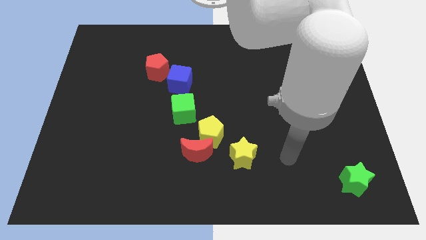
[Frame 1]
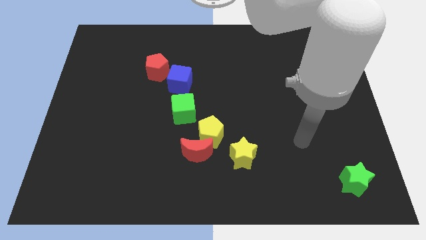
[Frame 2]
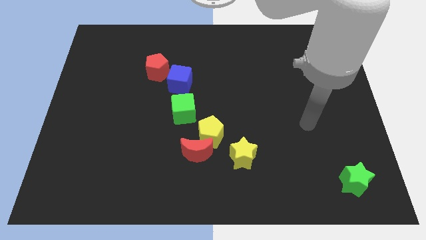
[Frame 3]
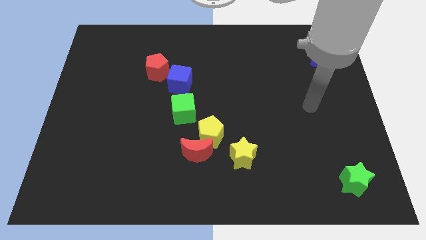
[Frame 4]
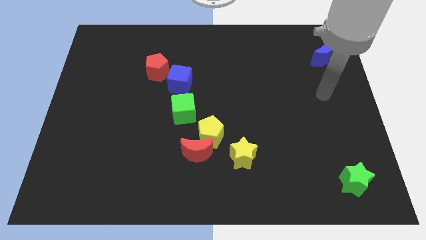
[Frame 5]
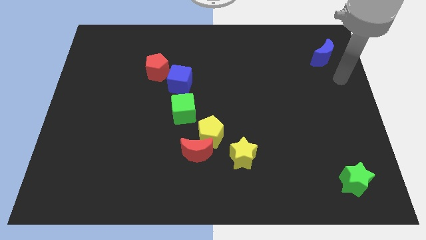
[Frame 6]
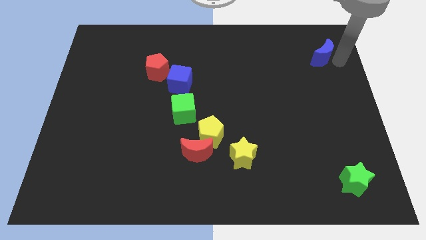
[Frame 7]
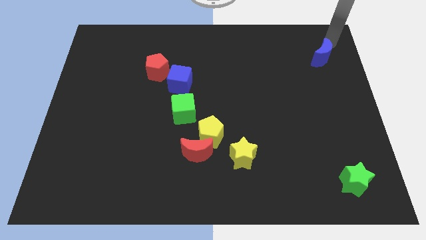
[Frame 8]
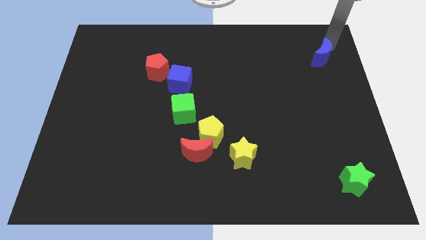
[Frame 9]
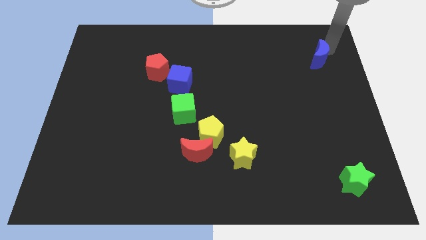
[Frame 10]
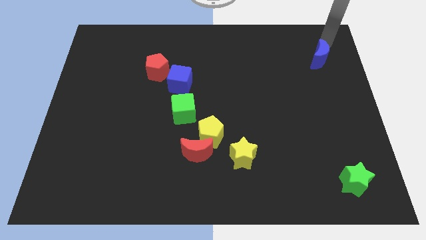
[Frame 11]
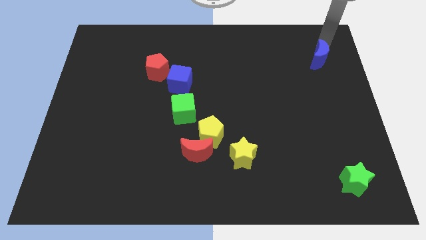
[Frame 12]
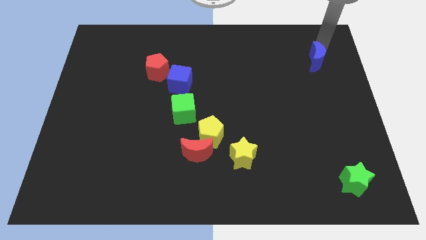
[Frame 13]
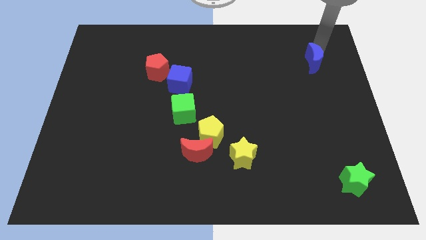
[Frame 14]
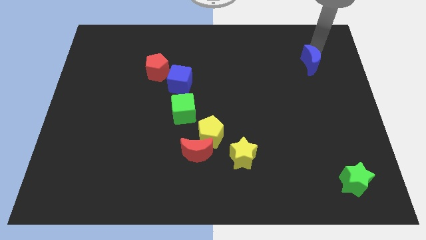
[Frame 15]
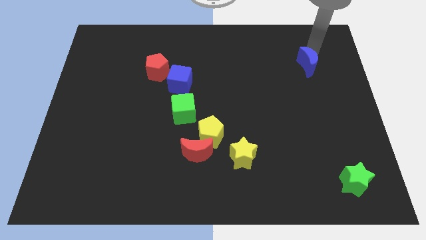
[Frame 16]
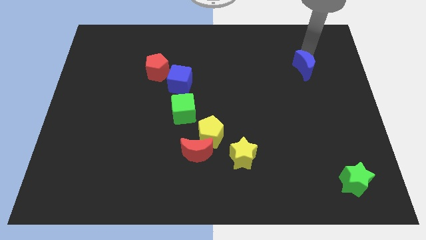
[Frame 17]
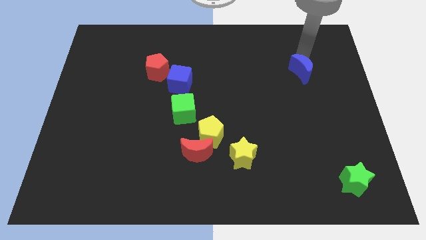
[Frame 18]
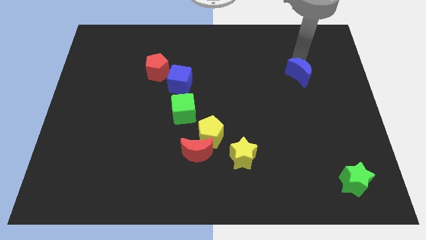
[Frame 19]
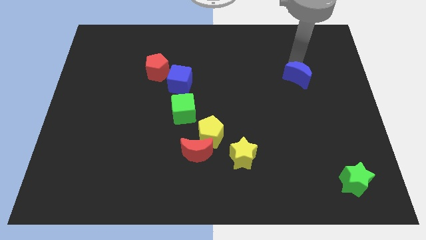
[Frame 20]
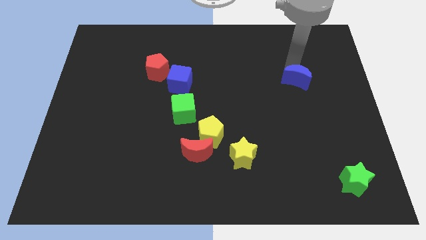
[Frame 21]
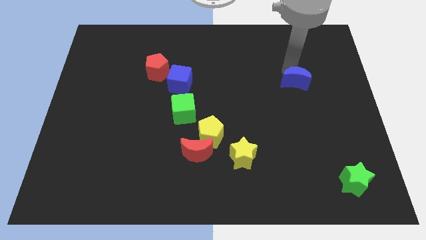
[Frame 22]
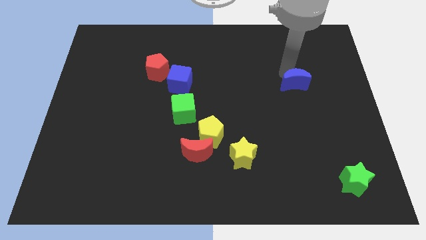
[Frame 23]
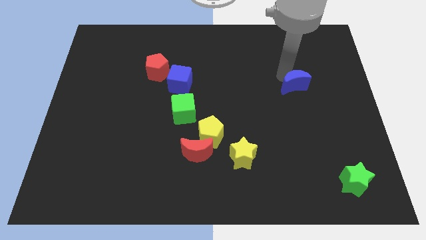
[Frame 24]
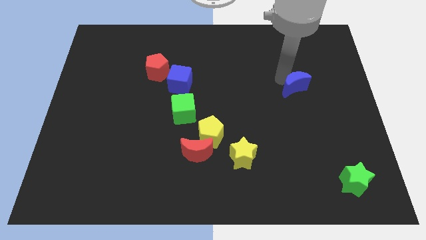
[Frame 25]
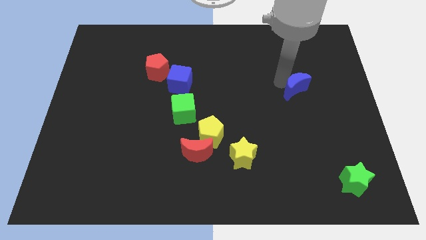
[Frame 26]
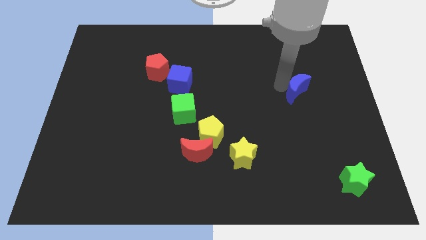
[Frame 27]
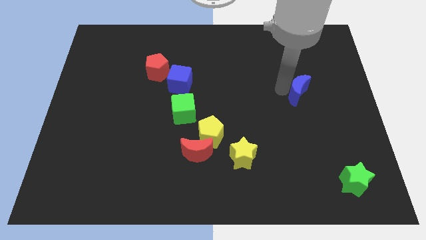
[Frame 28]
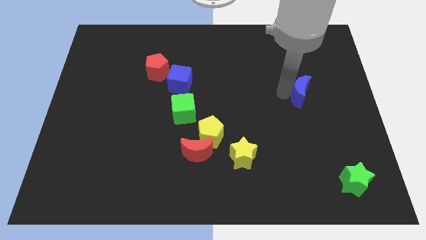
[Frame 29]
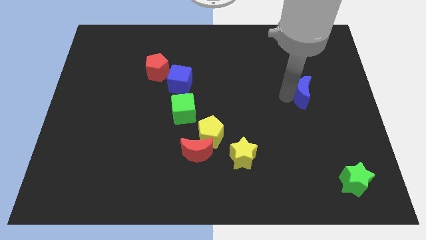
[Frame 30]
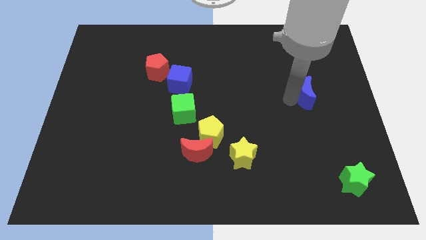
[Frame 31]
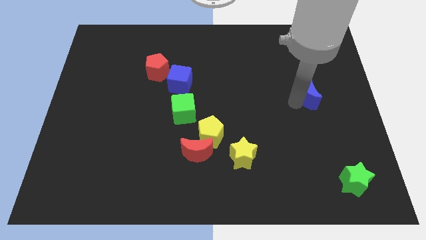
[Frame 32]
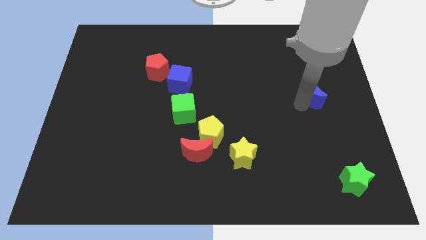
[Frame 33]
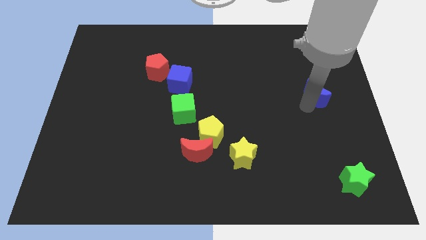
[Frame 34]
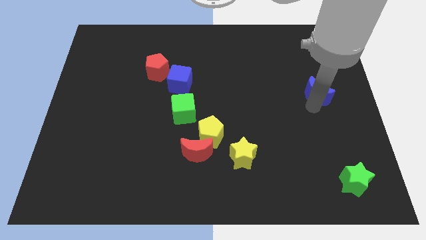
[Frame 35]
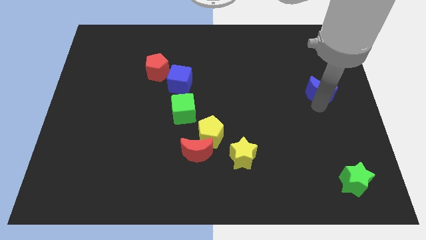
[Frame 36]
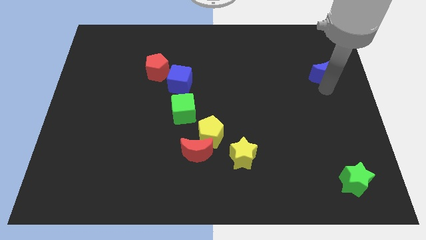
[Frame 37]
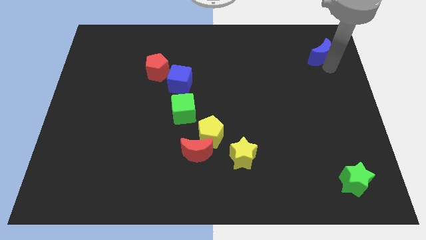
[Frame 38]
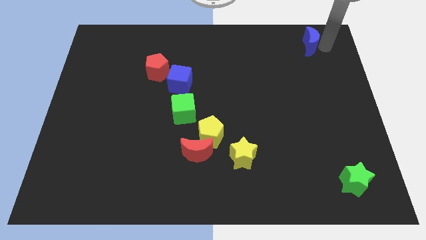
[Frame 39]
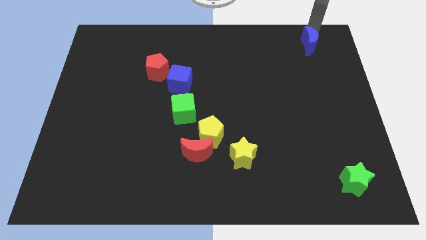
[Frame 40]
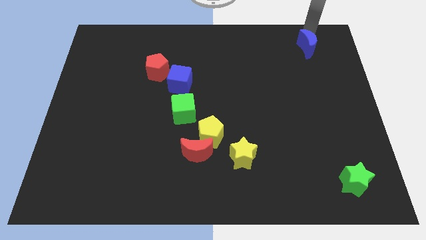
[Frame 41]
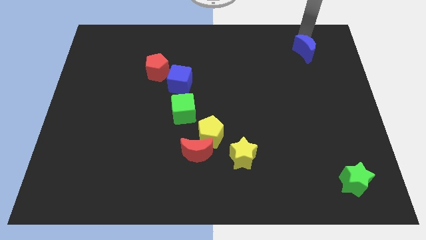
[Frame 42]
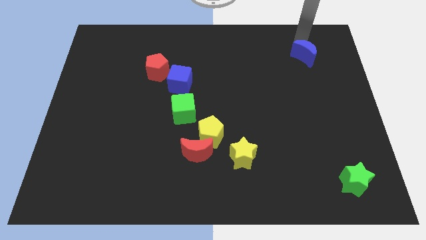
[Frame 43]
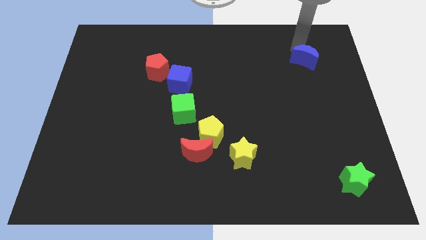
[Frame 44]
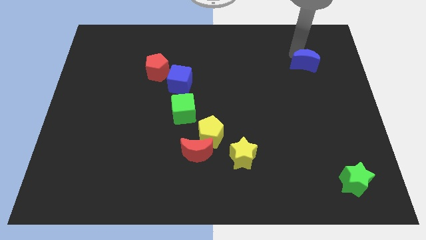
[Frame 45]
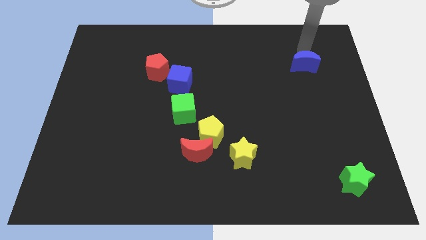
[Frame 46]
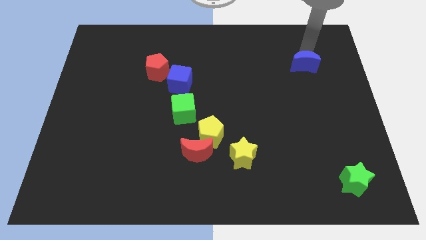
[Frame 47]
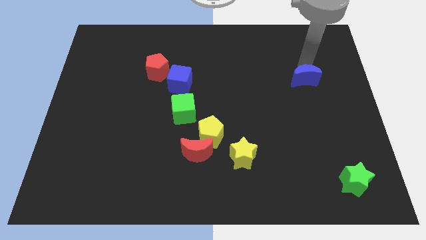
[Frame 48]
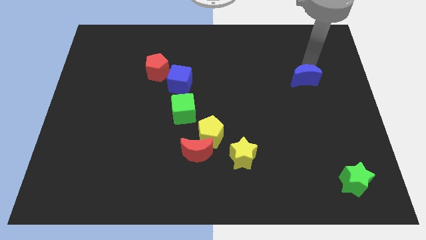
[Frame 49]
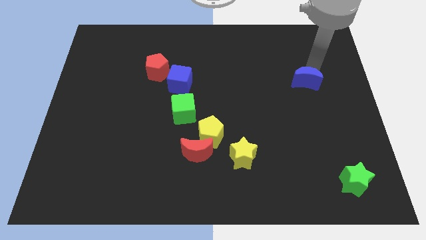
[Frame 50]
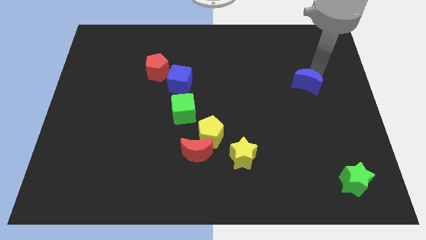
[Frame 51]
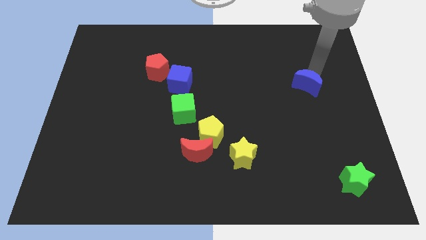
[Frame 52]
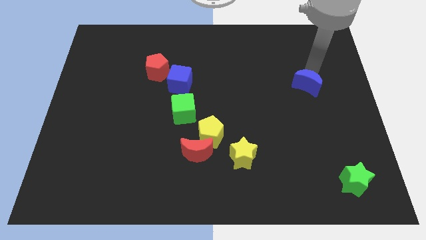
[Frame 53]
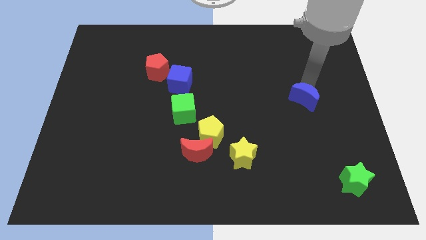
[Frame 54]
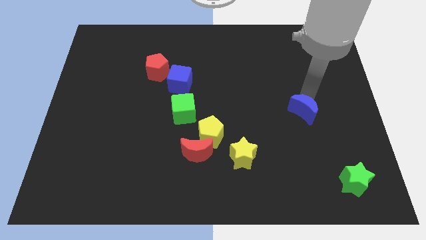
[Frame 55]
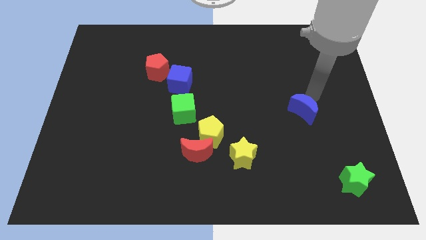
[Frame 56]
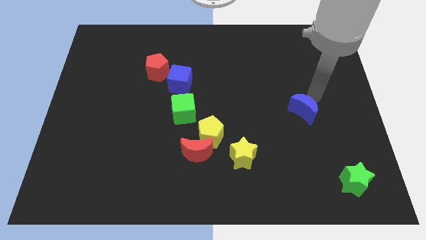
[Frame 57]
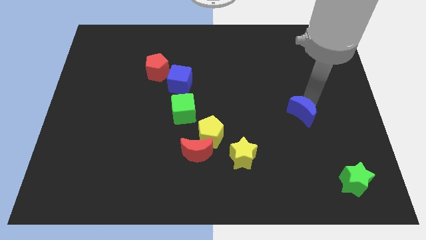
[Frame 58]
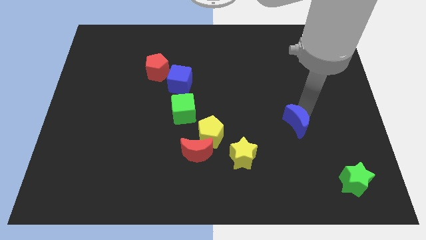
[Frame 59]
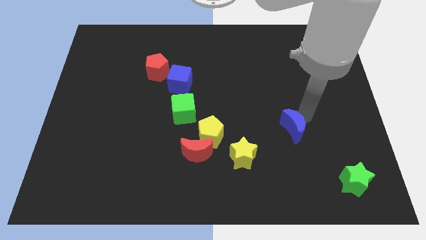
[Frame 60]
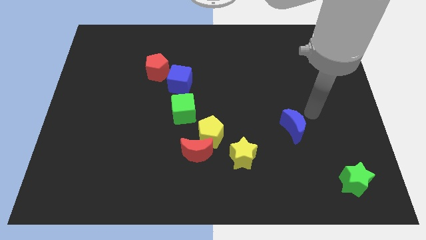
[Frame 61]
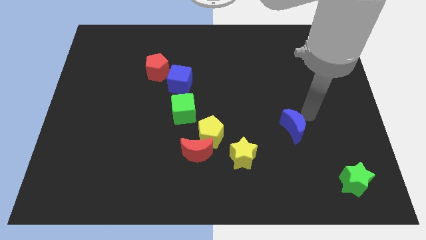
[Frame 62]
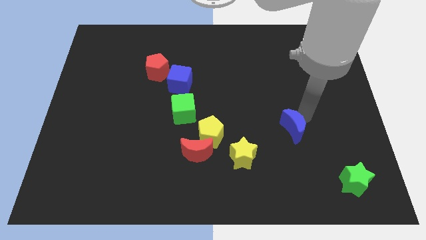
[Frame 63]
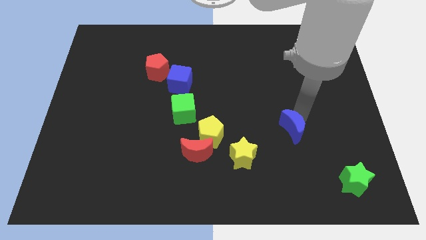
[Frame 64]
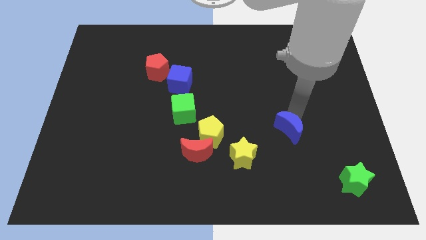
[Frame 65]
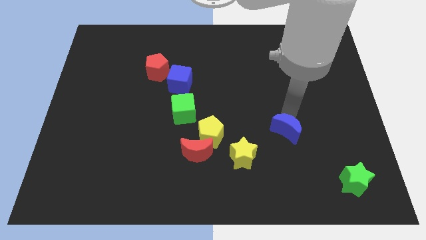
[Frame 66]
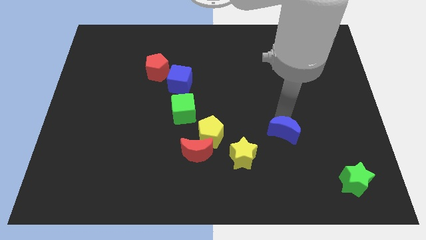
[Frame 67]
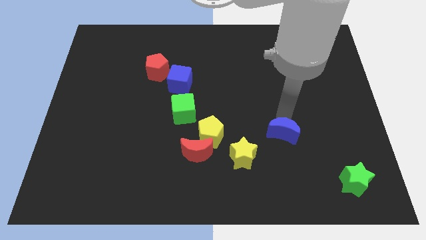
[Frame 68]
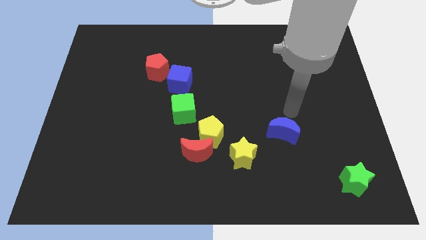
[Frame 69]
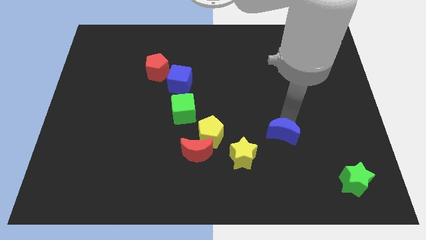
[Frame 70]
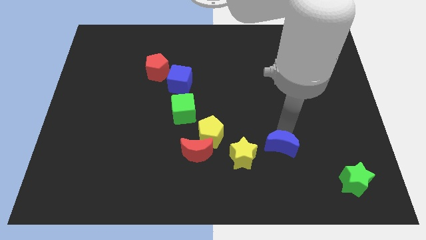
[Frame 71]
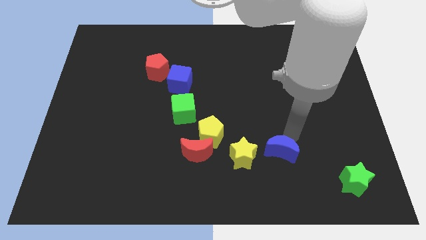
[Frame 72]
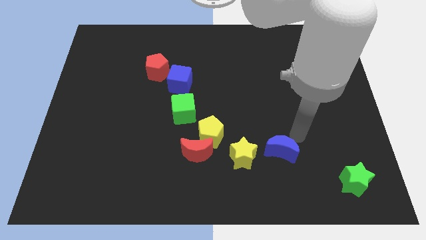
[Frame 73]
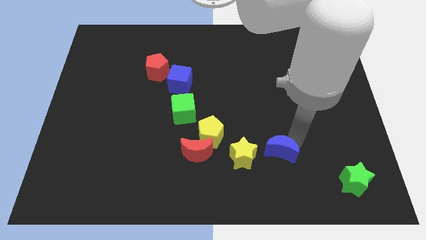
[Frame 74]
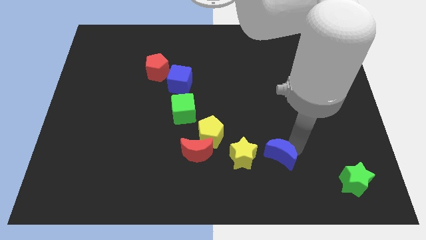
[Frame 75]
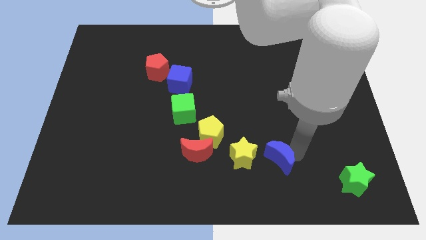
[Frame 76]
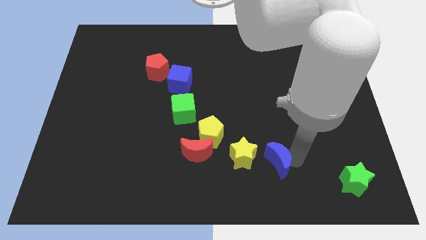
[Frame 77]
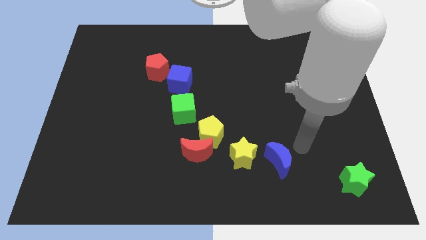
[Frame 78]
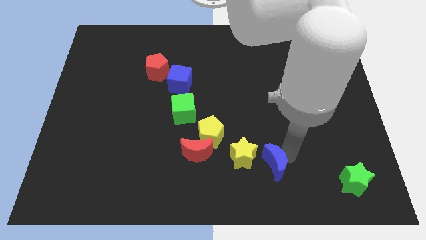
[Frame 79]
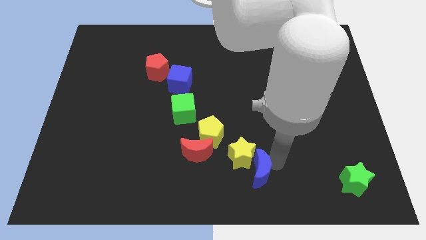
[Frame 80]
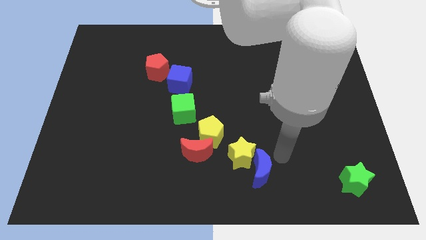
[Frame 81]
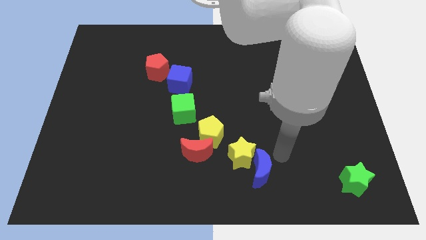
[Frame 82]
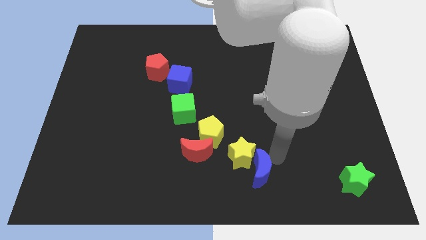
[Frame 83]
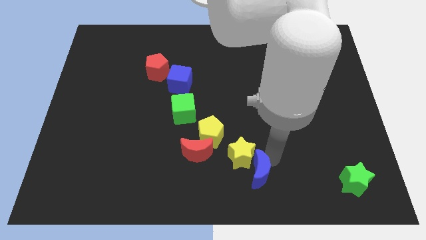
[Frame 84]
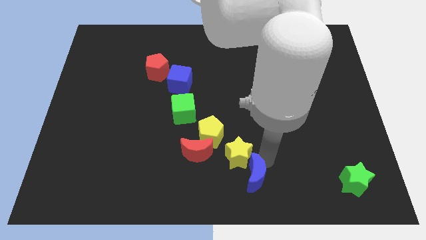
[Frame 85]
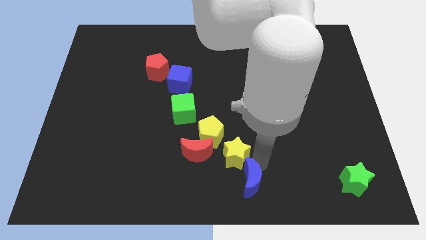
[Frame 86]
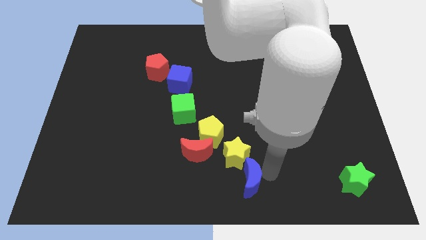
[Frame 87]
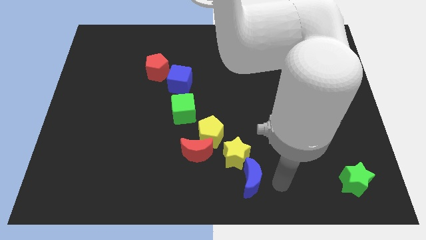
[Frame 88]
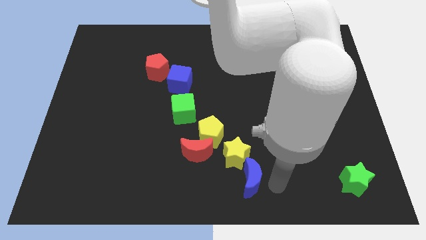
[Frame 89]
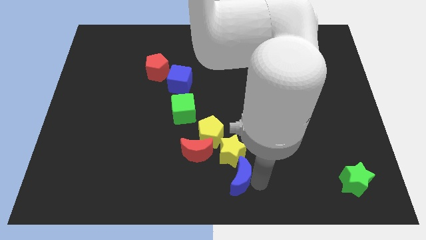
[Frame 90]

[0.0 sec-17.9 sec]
move the blue moon diagonally down and to the right of the red moon
